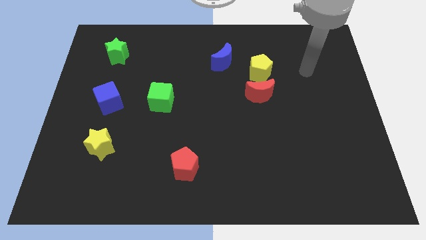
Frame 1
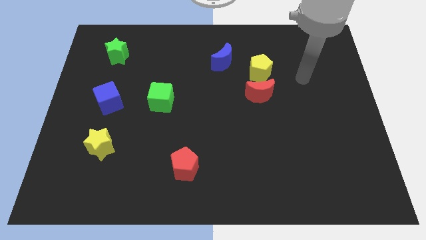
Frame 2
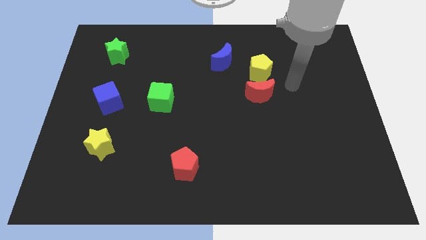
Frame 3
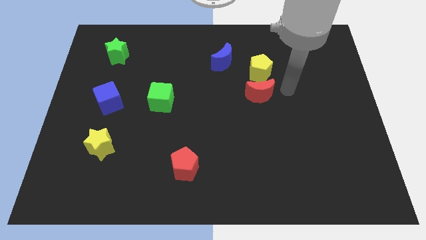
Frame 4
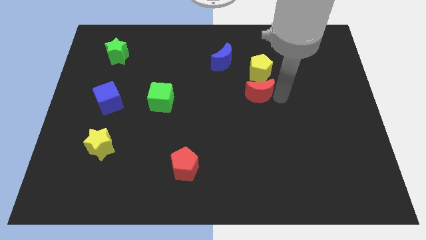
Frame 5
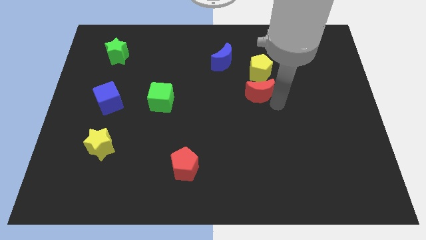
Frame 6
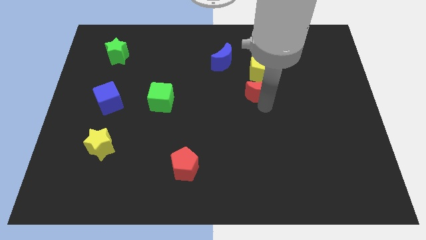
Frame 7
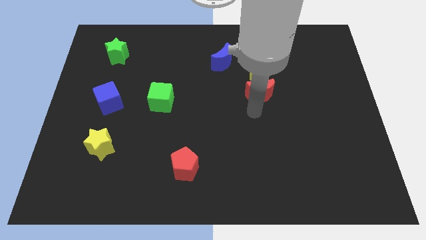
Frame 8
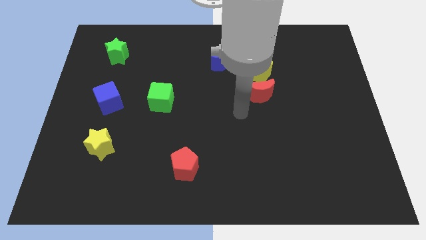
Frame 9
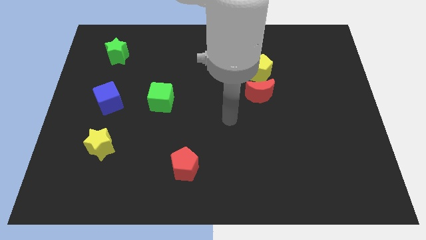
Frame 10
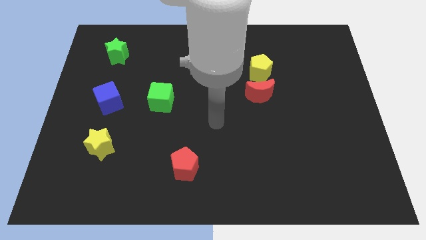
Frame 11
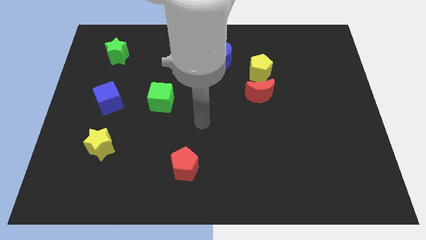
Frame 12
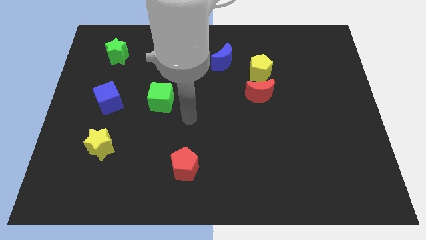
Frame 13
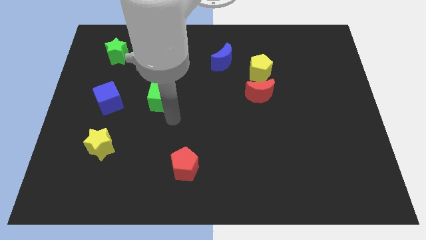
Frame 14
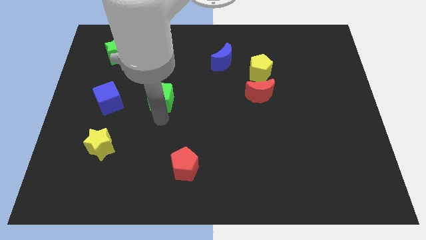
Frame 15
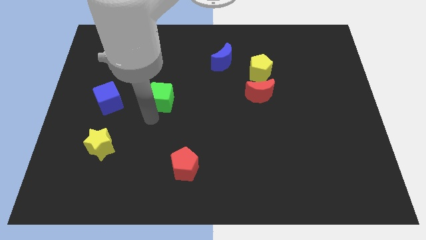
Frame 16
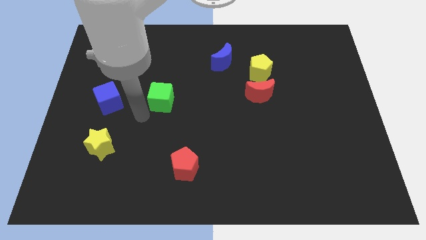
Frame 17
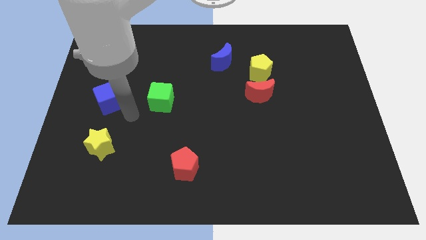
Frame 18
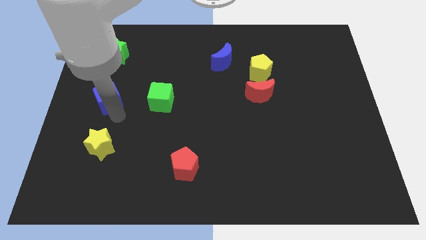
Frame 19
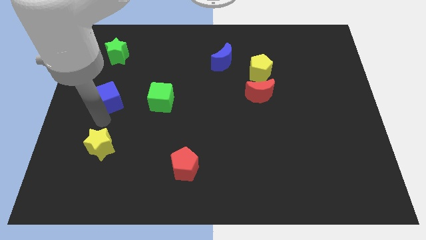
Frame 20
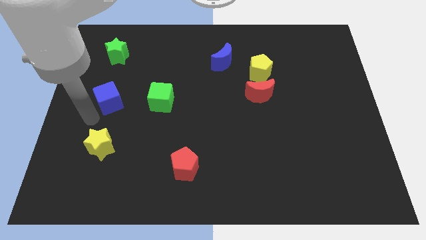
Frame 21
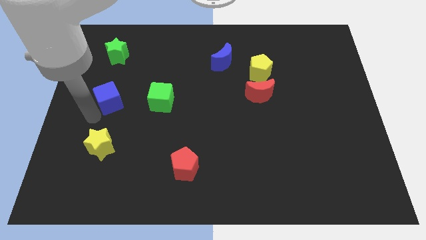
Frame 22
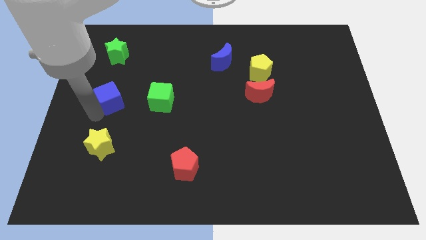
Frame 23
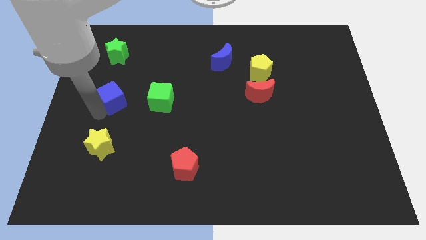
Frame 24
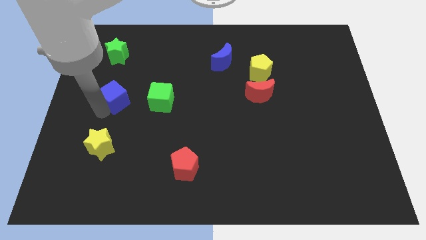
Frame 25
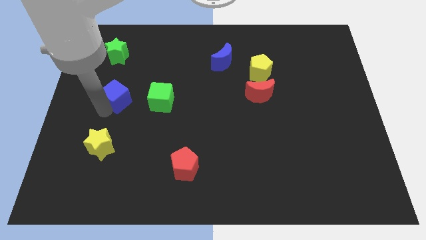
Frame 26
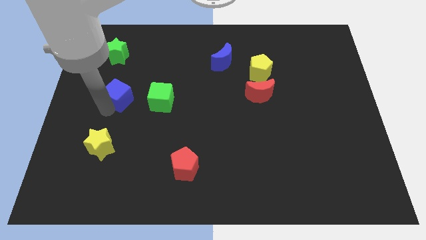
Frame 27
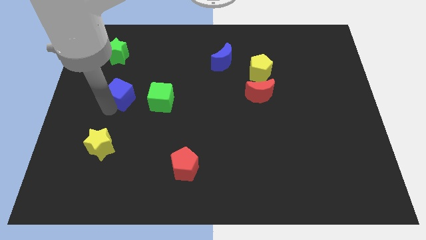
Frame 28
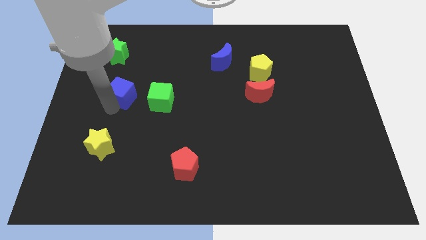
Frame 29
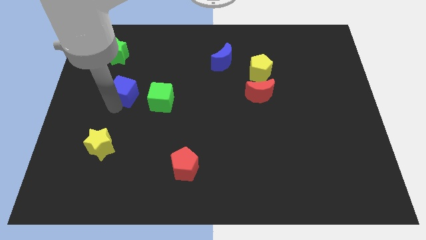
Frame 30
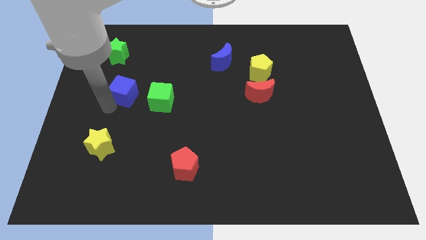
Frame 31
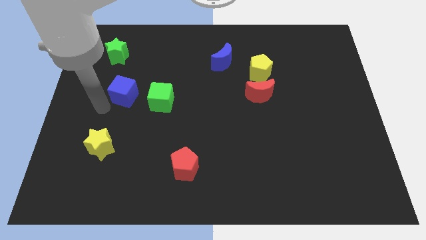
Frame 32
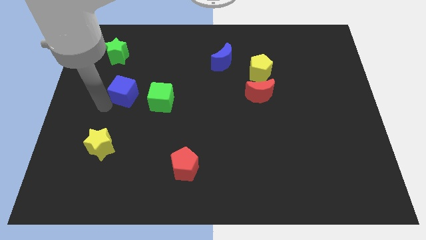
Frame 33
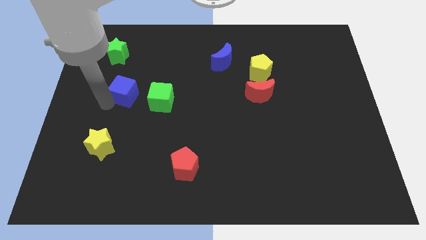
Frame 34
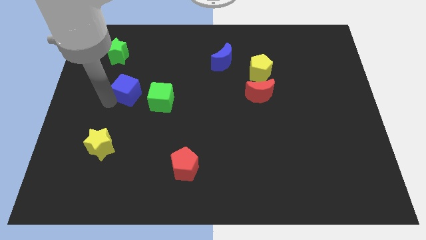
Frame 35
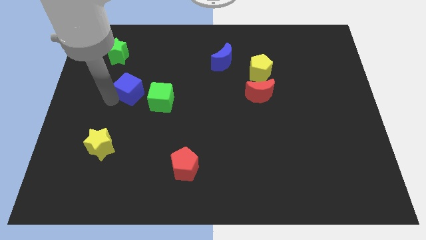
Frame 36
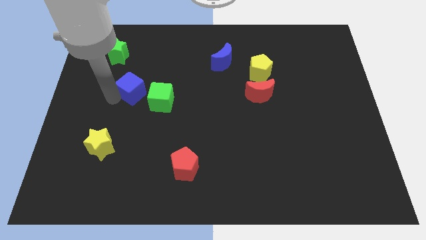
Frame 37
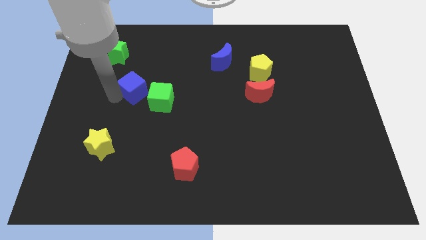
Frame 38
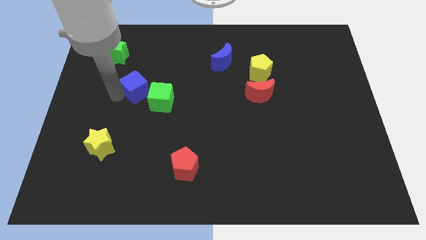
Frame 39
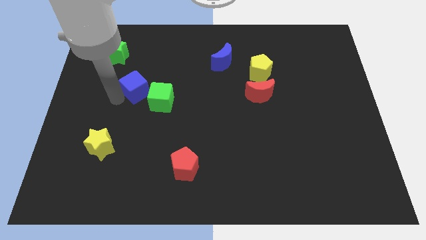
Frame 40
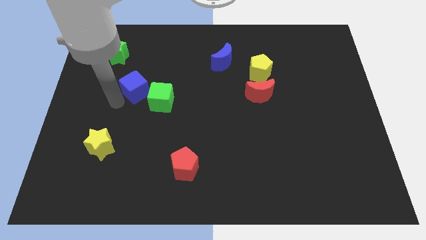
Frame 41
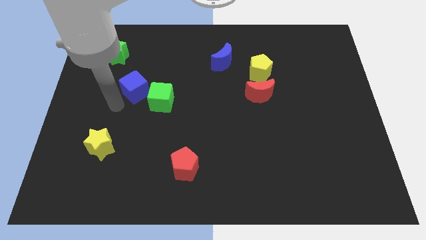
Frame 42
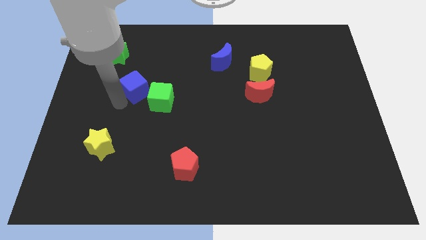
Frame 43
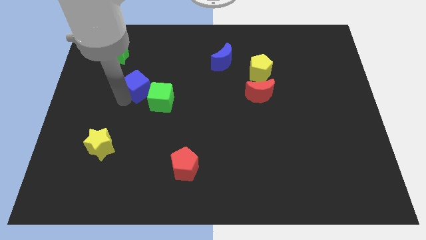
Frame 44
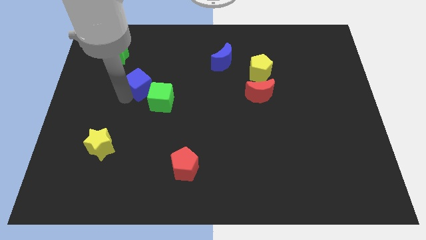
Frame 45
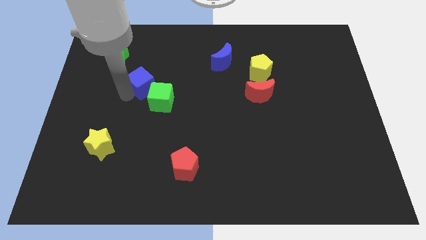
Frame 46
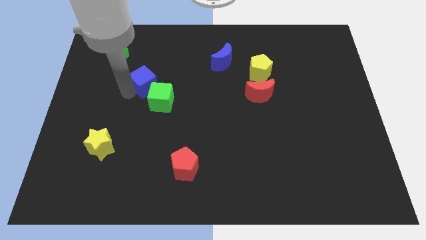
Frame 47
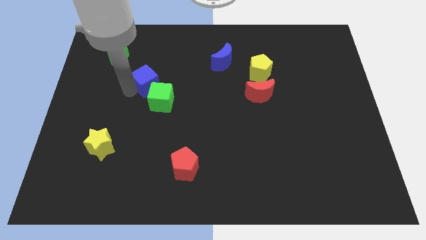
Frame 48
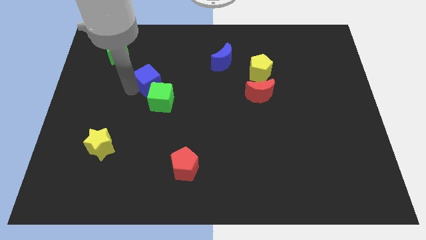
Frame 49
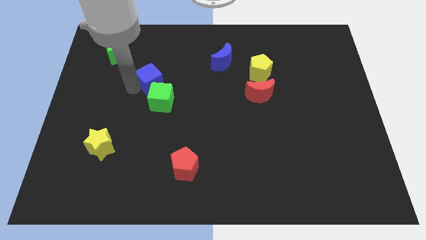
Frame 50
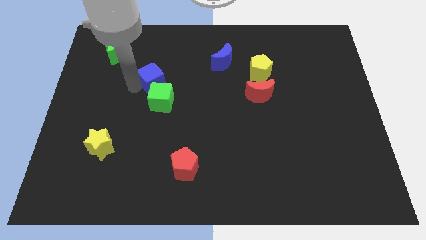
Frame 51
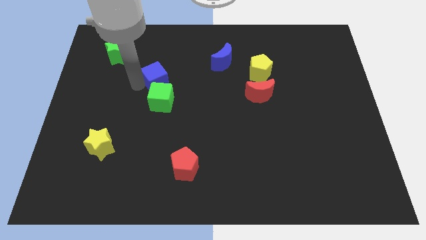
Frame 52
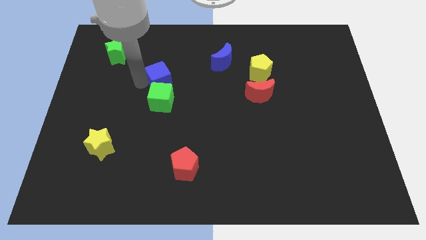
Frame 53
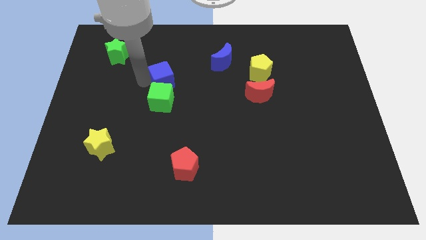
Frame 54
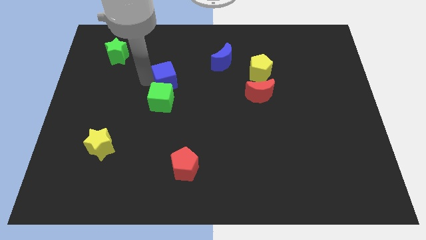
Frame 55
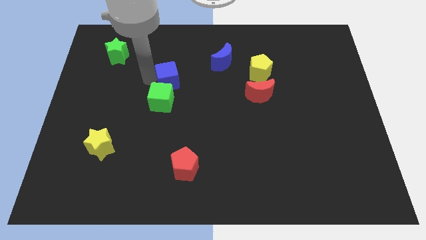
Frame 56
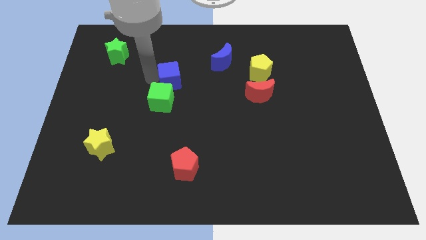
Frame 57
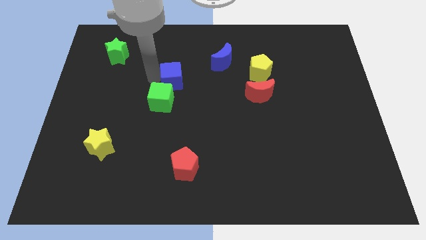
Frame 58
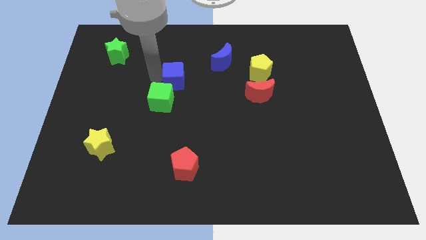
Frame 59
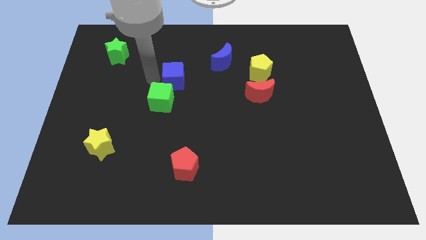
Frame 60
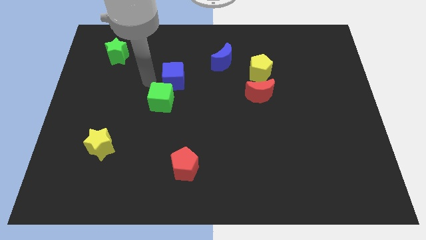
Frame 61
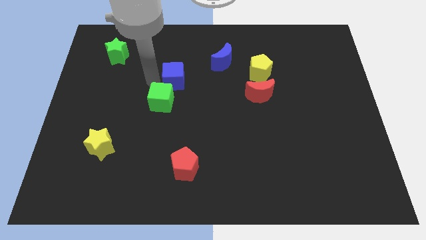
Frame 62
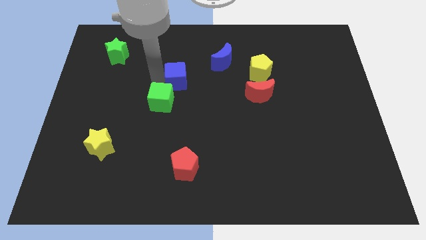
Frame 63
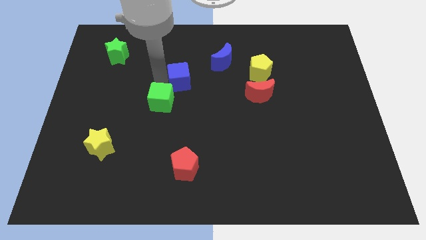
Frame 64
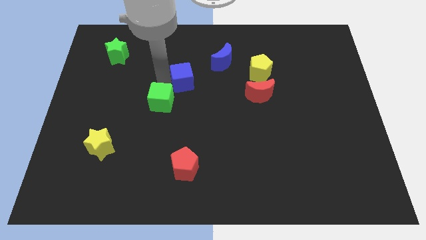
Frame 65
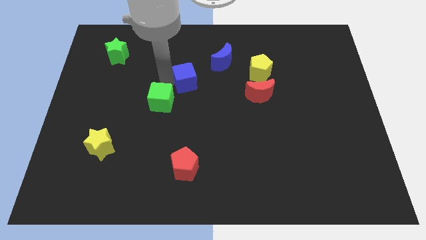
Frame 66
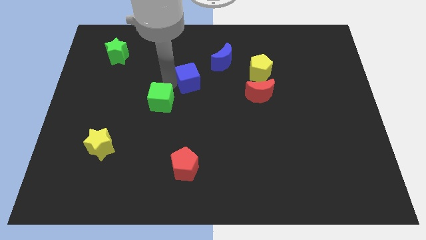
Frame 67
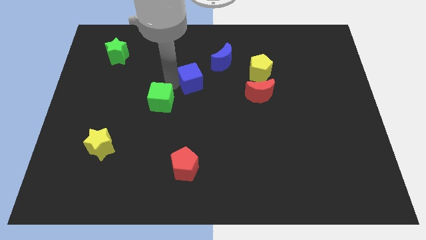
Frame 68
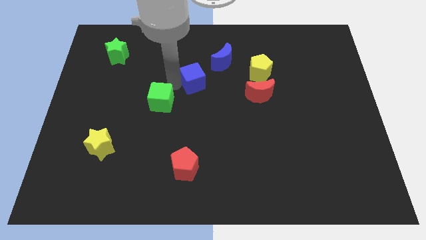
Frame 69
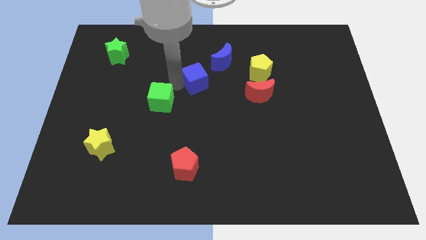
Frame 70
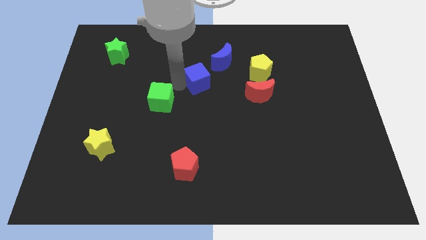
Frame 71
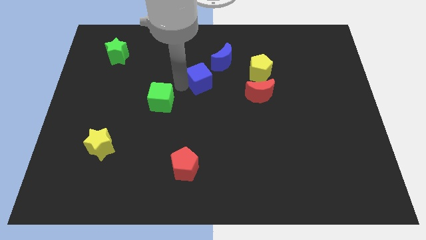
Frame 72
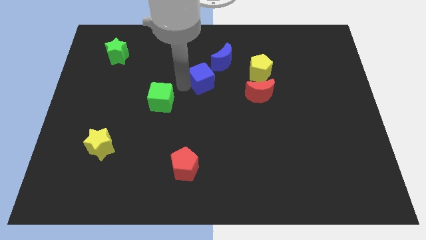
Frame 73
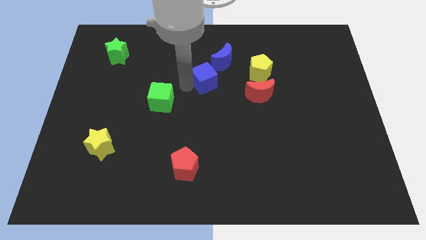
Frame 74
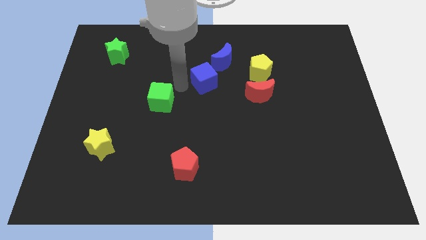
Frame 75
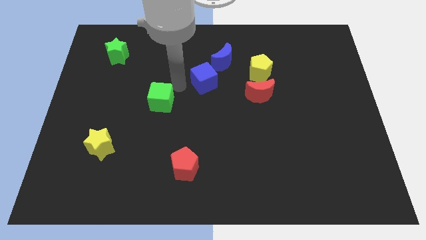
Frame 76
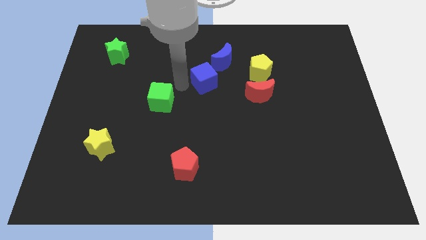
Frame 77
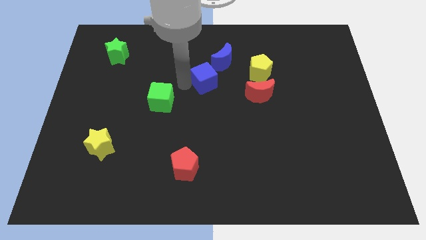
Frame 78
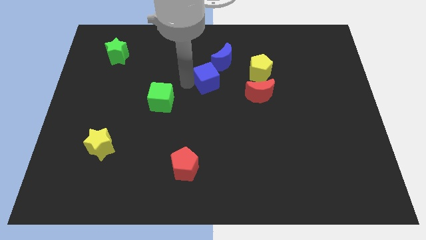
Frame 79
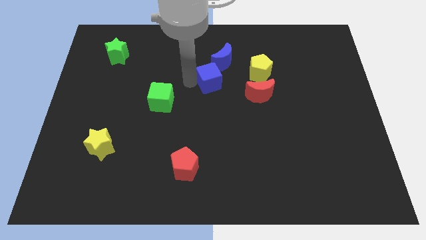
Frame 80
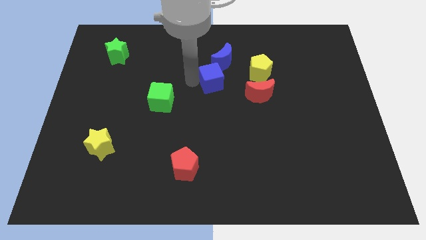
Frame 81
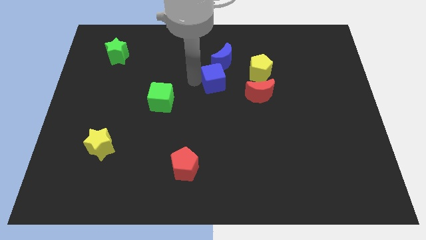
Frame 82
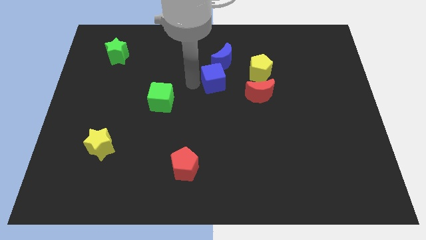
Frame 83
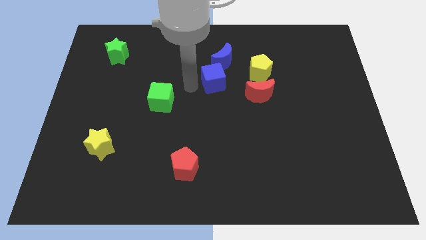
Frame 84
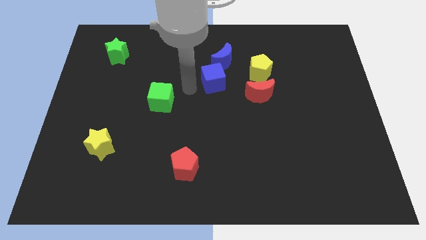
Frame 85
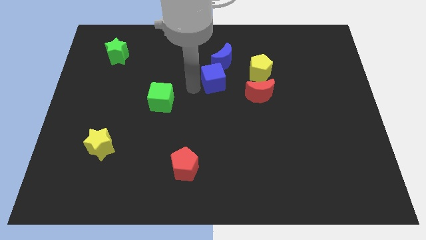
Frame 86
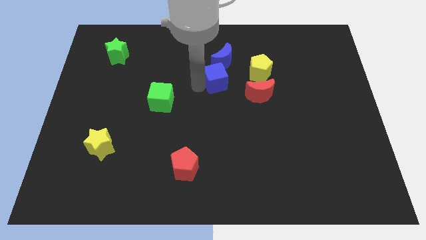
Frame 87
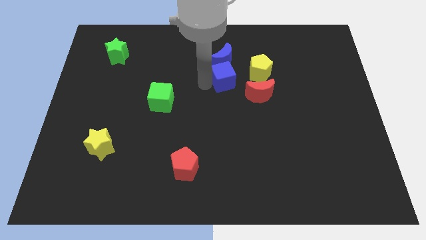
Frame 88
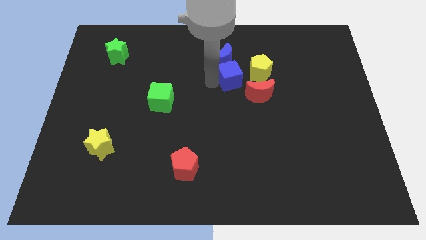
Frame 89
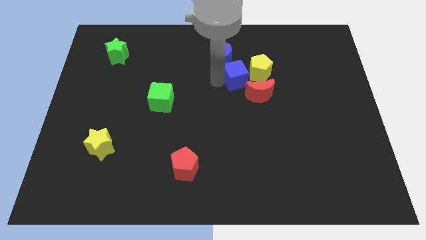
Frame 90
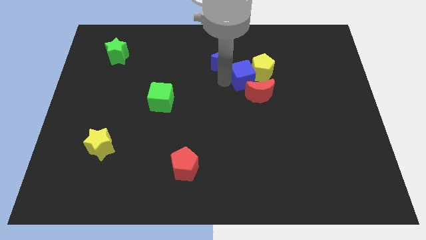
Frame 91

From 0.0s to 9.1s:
put the blue cube above the red moon
